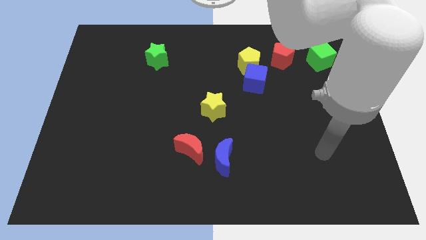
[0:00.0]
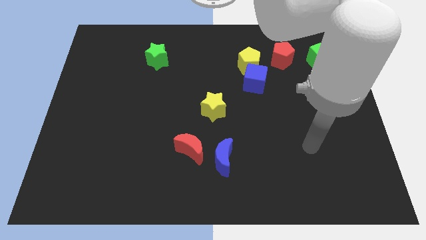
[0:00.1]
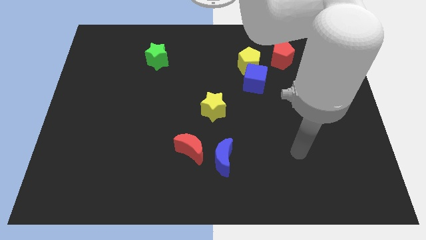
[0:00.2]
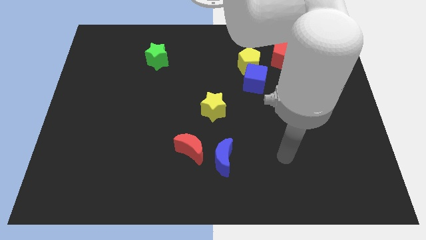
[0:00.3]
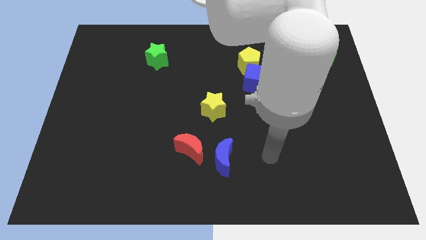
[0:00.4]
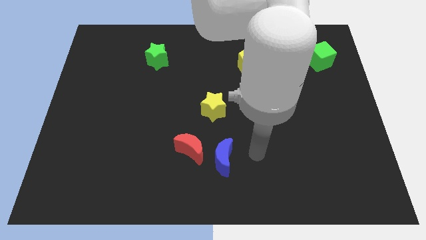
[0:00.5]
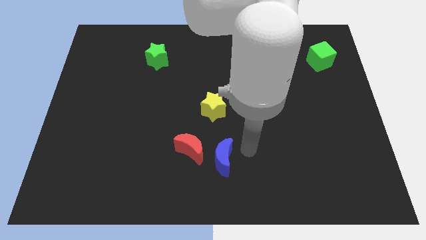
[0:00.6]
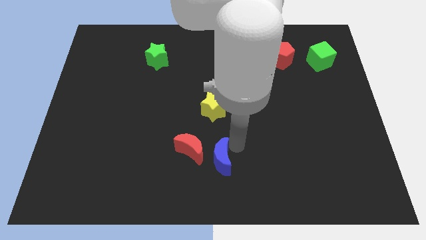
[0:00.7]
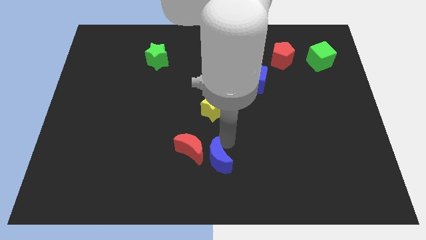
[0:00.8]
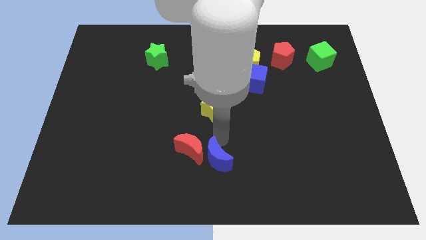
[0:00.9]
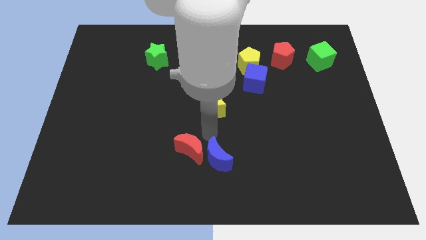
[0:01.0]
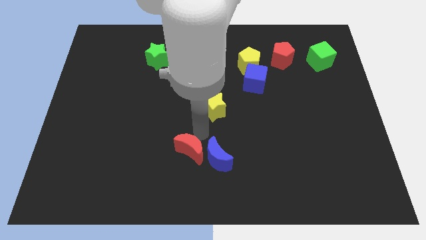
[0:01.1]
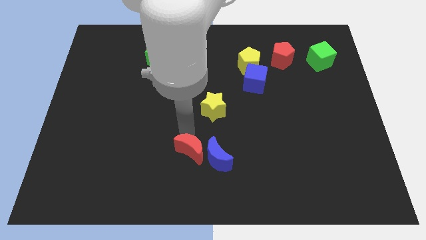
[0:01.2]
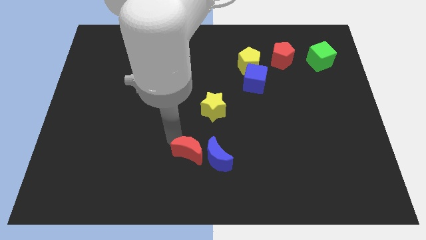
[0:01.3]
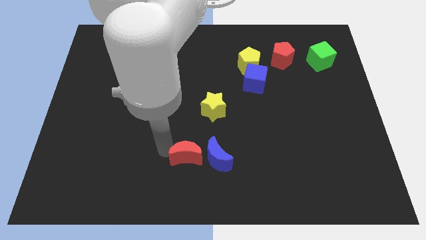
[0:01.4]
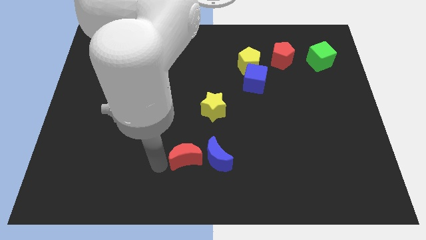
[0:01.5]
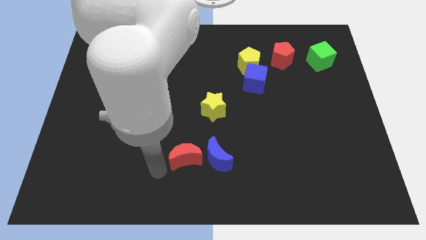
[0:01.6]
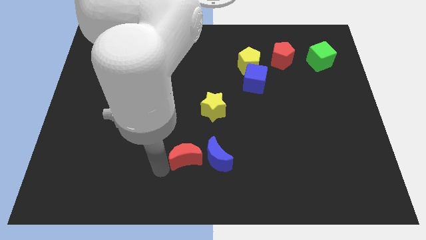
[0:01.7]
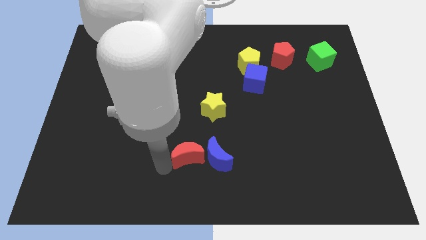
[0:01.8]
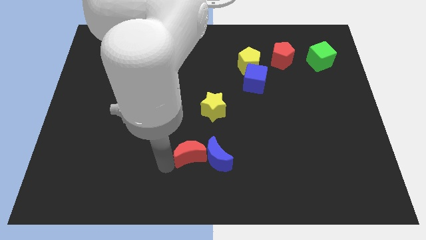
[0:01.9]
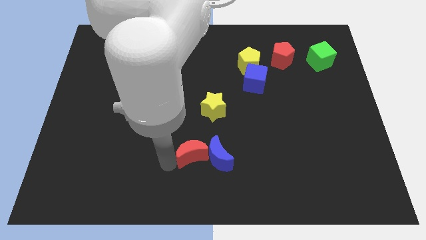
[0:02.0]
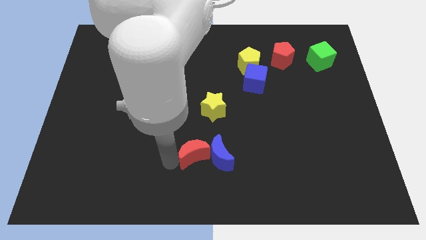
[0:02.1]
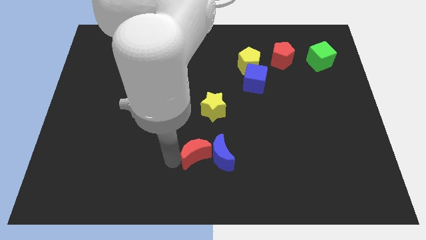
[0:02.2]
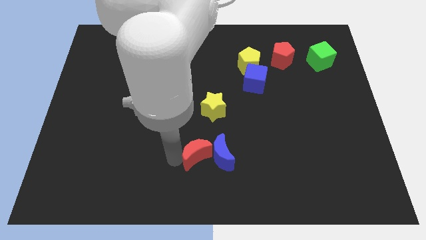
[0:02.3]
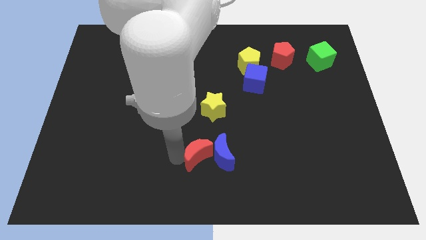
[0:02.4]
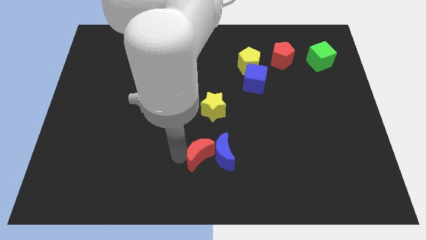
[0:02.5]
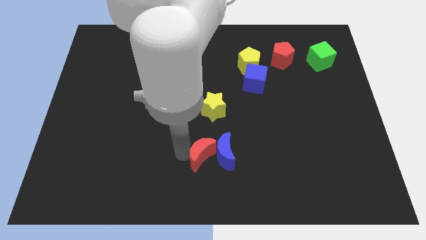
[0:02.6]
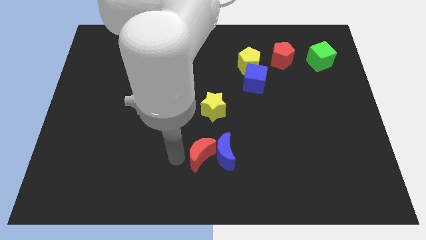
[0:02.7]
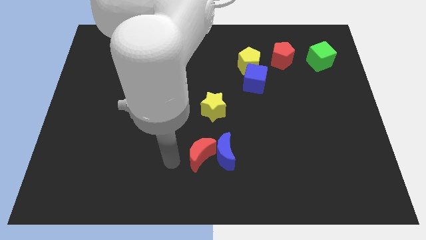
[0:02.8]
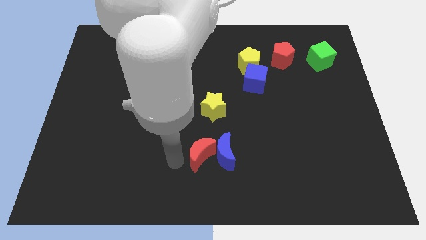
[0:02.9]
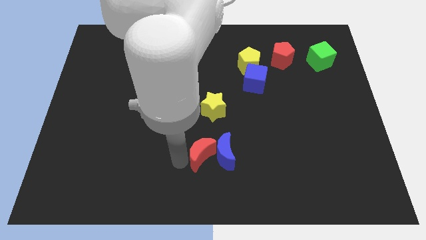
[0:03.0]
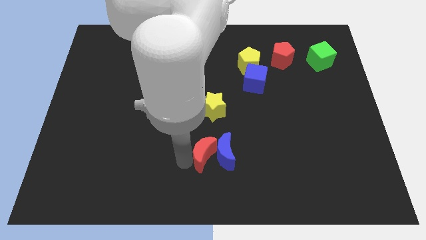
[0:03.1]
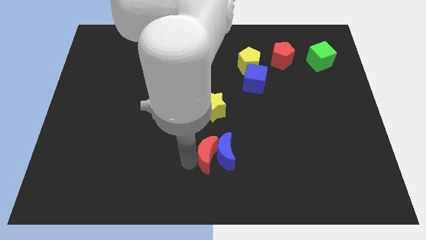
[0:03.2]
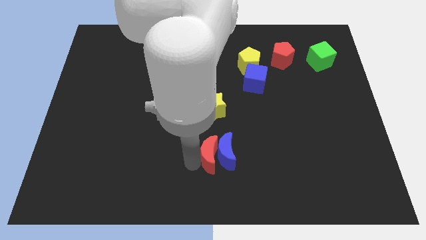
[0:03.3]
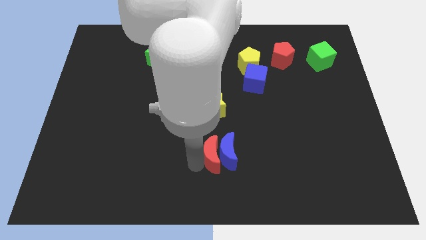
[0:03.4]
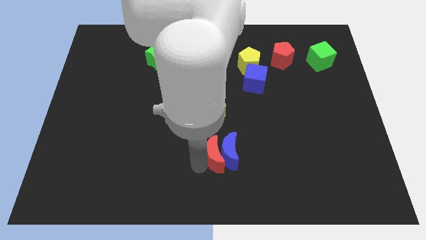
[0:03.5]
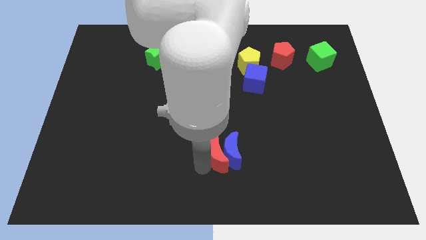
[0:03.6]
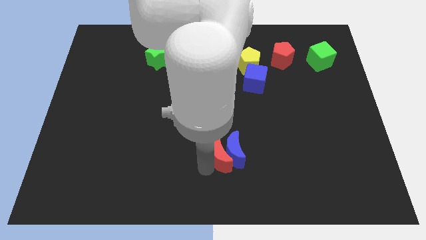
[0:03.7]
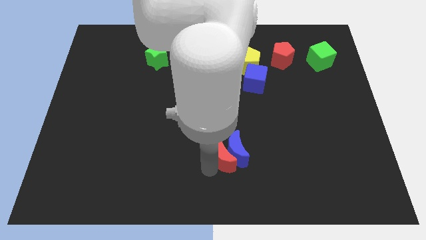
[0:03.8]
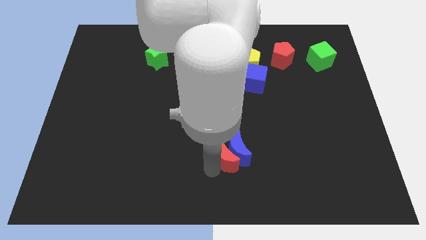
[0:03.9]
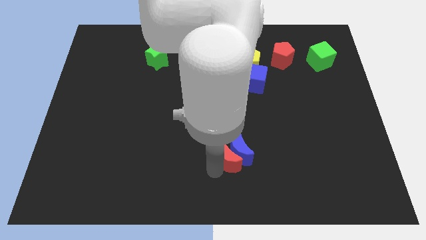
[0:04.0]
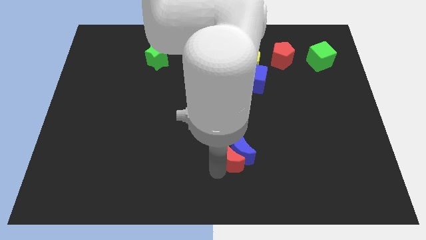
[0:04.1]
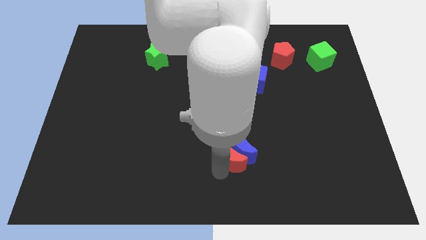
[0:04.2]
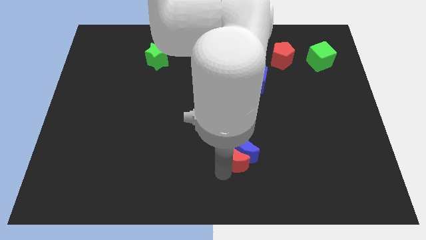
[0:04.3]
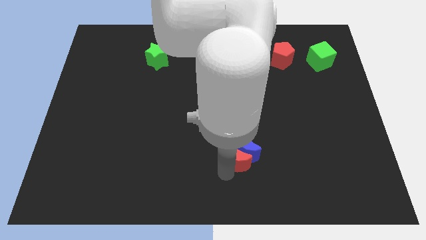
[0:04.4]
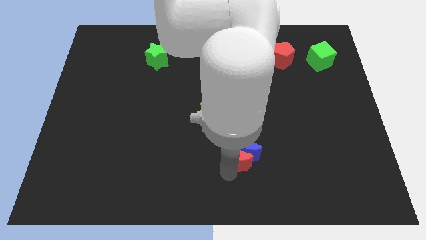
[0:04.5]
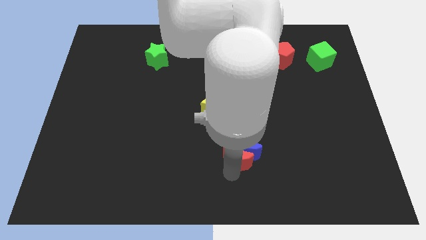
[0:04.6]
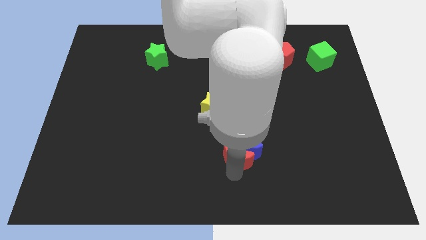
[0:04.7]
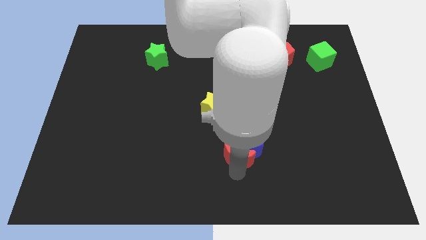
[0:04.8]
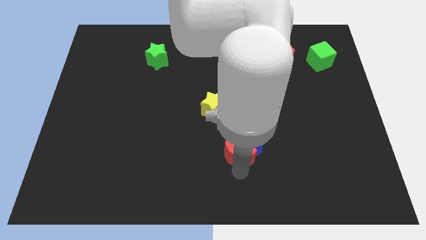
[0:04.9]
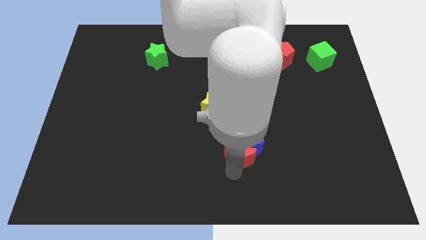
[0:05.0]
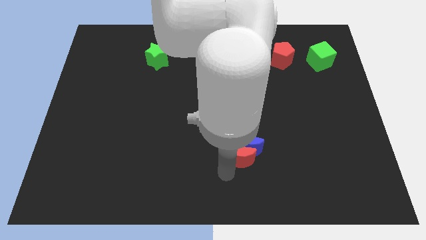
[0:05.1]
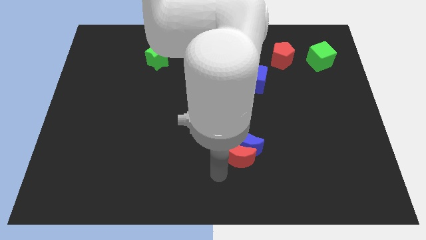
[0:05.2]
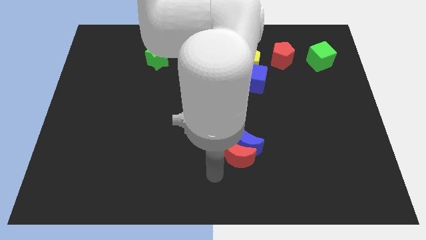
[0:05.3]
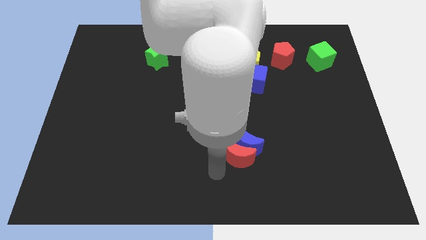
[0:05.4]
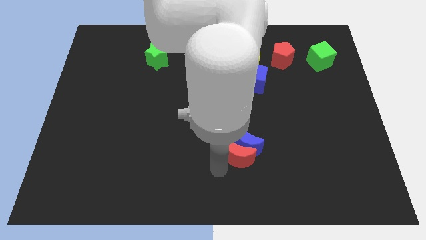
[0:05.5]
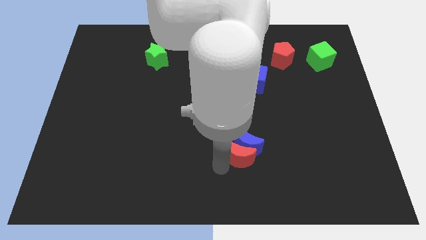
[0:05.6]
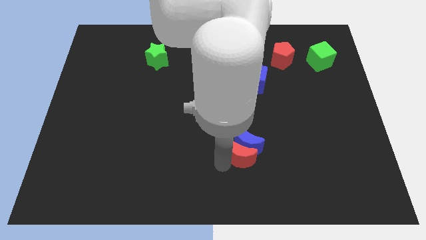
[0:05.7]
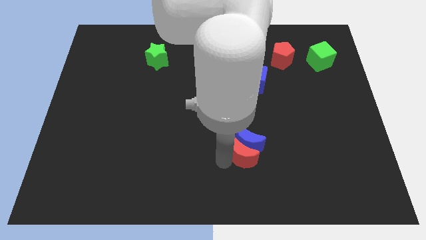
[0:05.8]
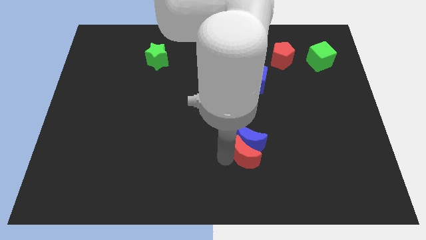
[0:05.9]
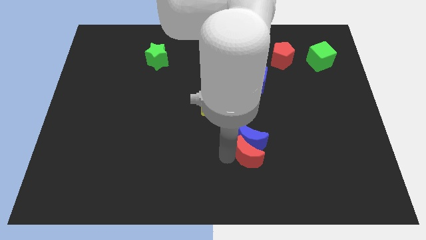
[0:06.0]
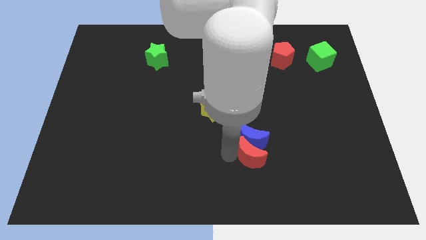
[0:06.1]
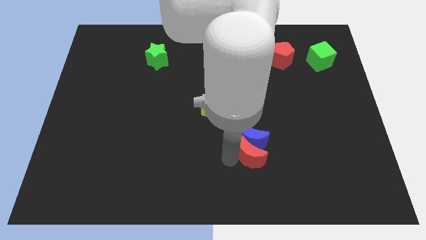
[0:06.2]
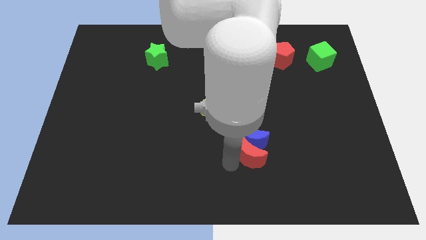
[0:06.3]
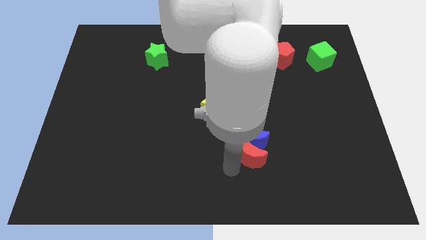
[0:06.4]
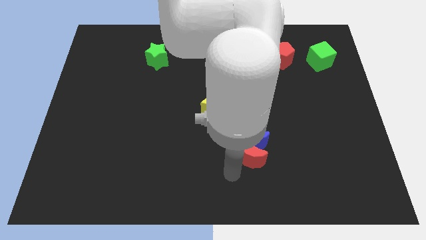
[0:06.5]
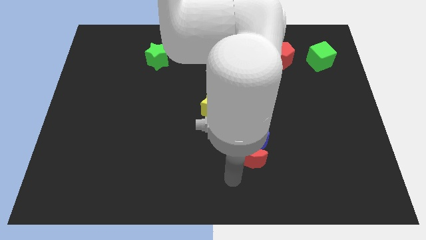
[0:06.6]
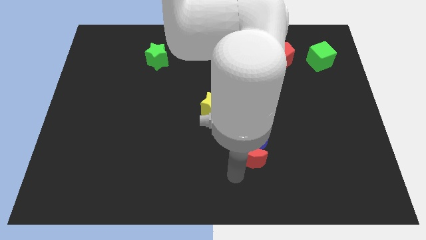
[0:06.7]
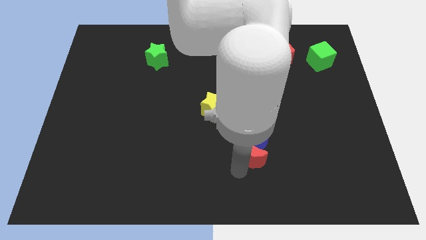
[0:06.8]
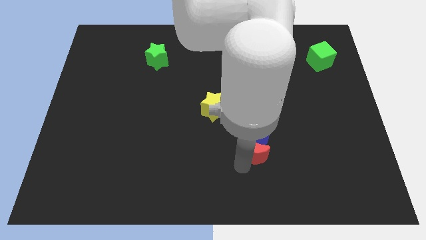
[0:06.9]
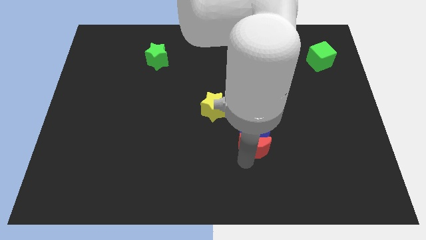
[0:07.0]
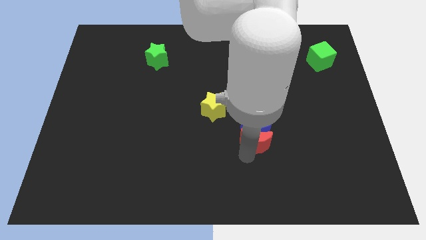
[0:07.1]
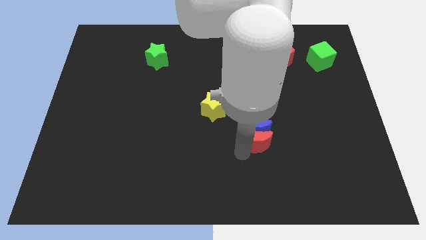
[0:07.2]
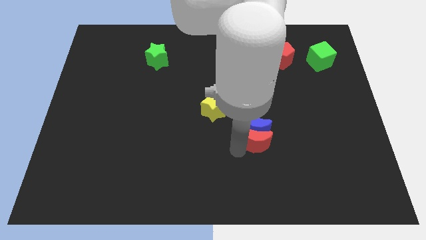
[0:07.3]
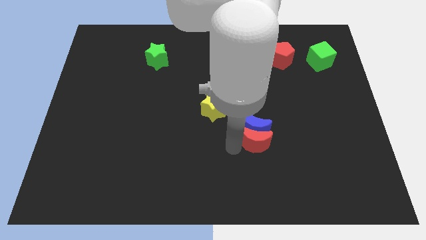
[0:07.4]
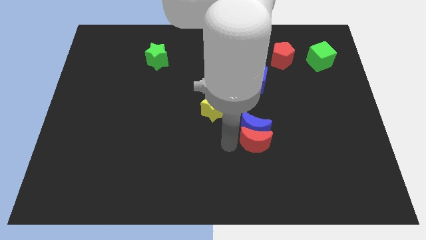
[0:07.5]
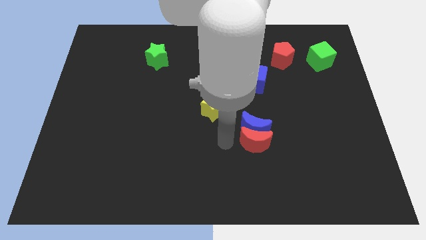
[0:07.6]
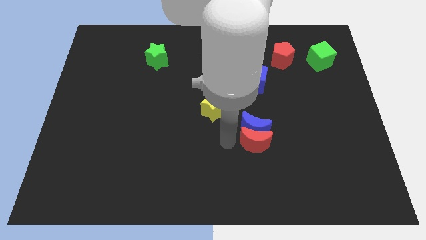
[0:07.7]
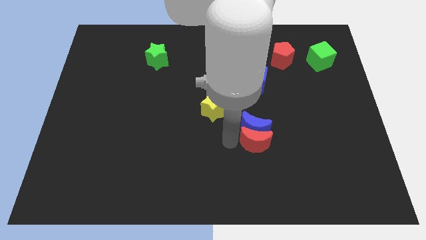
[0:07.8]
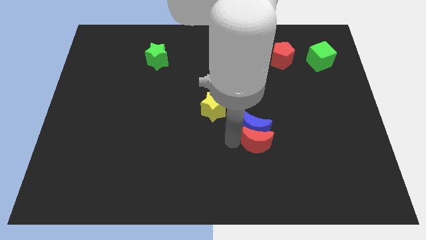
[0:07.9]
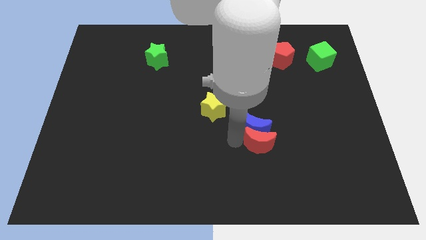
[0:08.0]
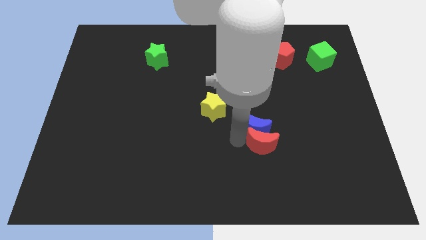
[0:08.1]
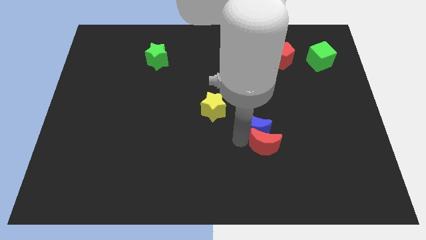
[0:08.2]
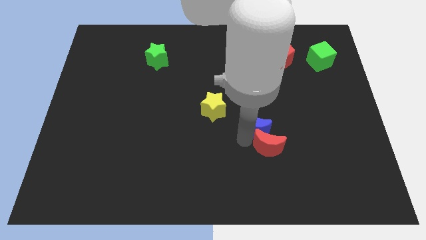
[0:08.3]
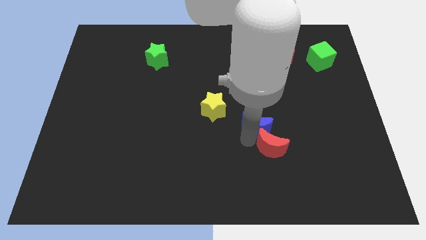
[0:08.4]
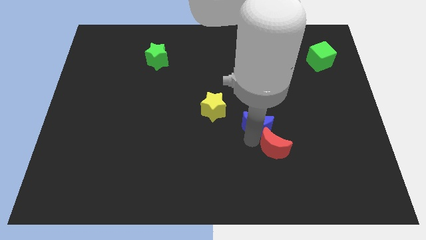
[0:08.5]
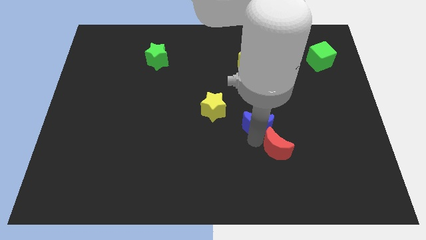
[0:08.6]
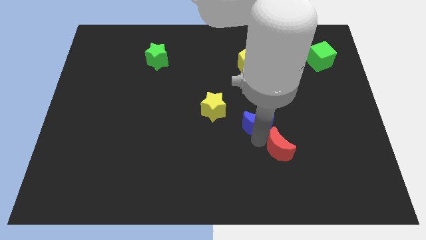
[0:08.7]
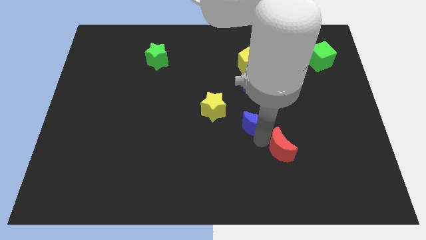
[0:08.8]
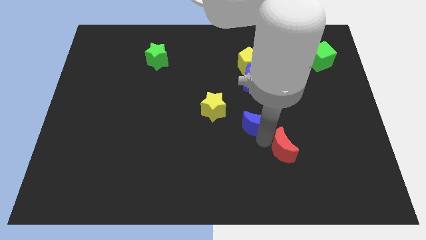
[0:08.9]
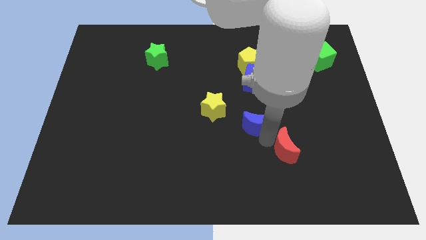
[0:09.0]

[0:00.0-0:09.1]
push the red moon right
